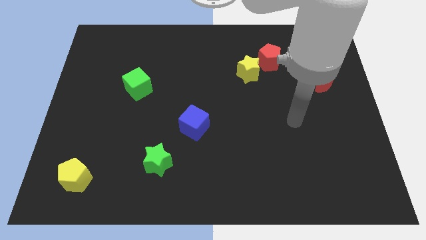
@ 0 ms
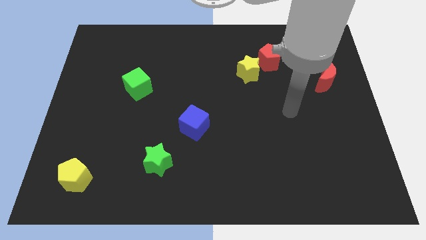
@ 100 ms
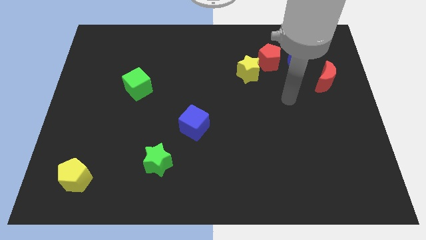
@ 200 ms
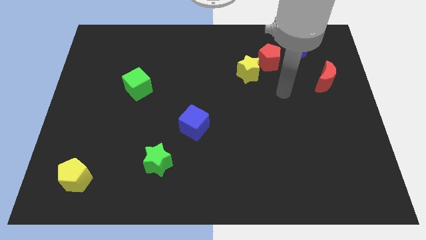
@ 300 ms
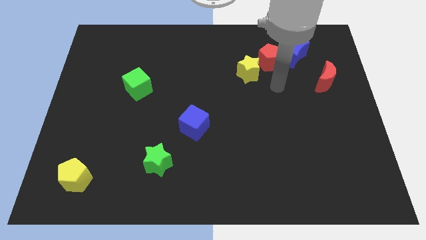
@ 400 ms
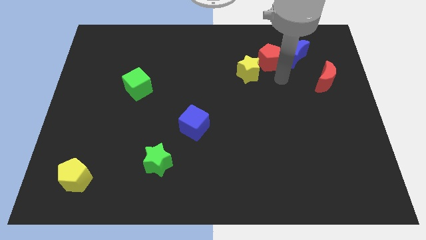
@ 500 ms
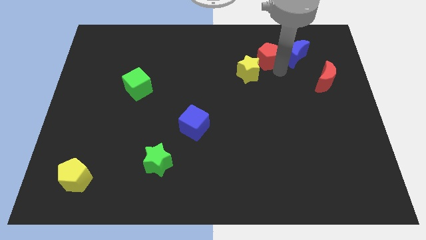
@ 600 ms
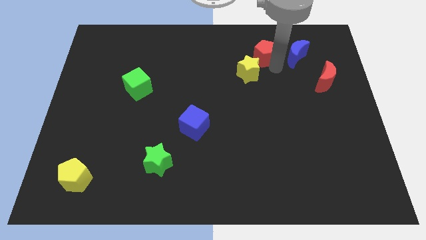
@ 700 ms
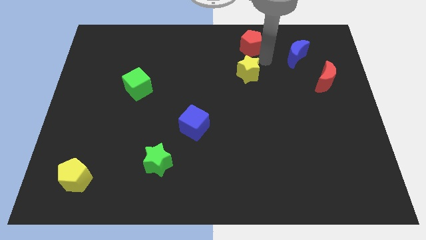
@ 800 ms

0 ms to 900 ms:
move the yellow star away from the red pentagon

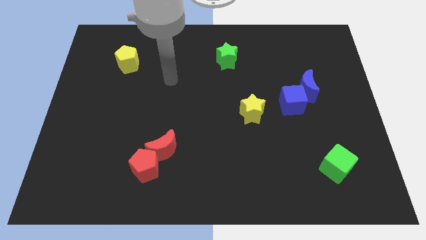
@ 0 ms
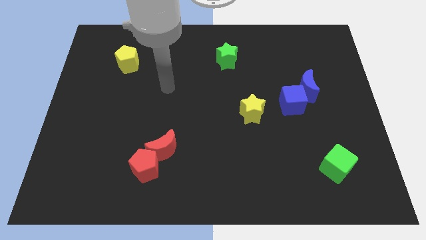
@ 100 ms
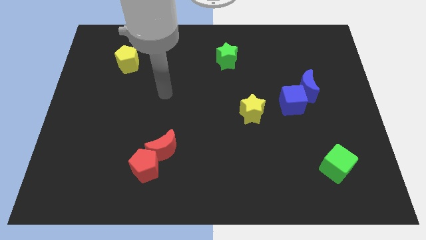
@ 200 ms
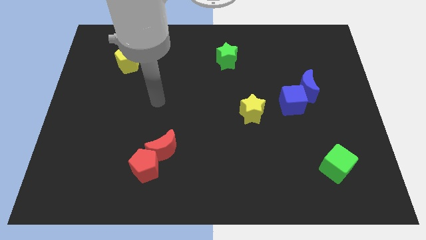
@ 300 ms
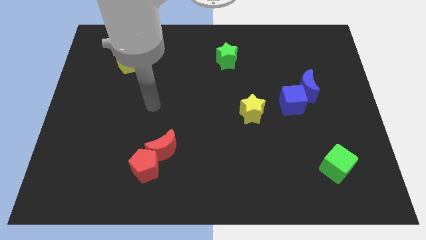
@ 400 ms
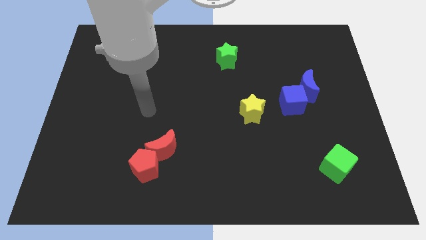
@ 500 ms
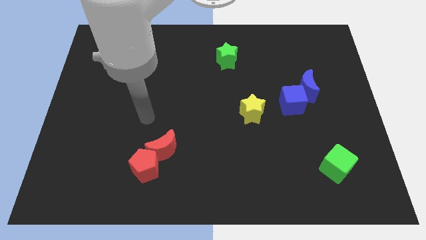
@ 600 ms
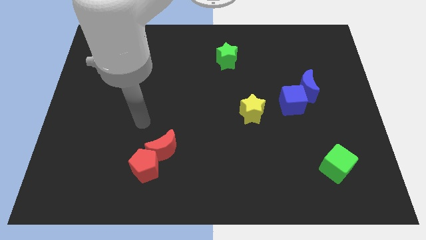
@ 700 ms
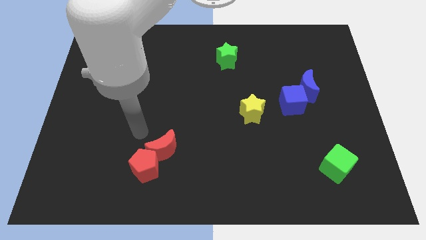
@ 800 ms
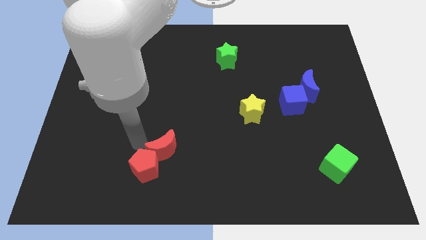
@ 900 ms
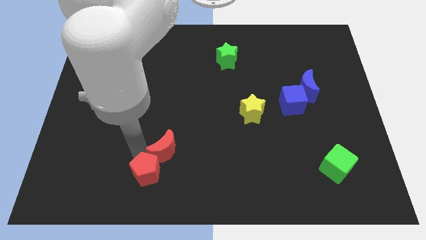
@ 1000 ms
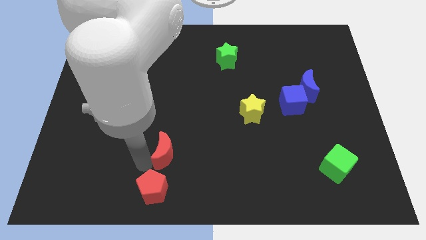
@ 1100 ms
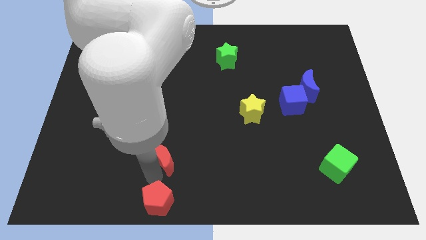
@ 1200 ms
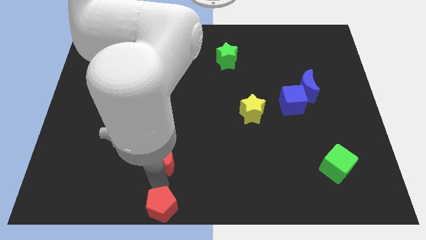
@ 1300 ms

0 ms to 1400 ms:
pull the red moon apart from the red pentagon

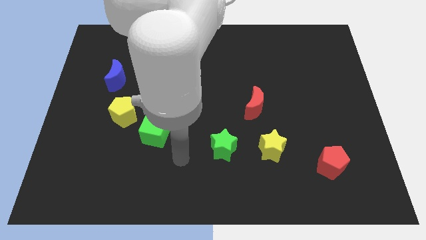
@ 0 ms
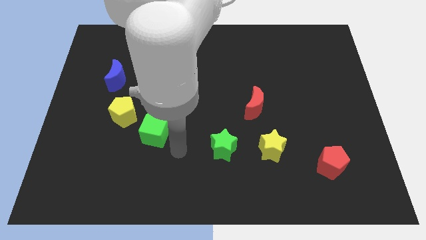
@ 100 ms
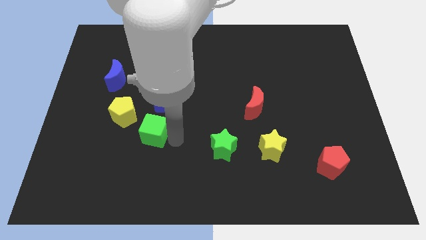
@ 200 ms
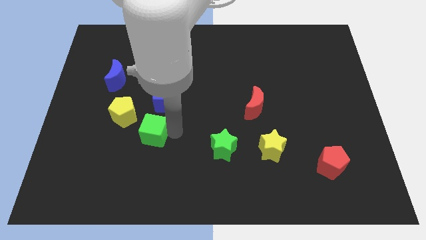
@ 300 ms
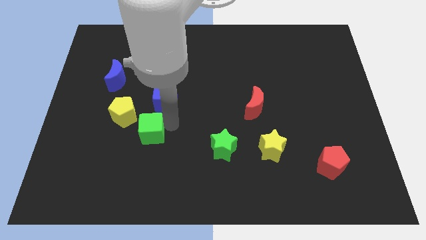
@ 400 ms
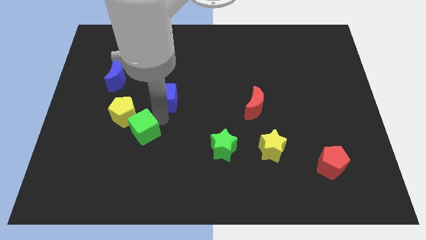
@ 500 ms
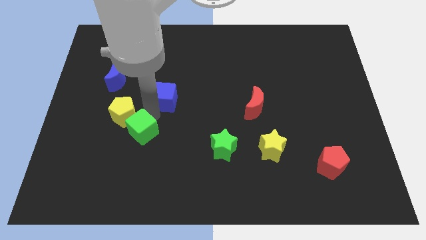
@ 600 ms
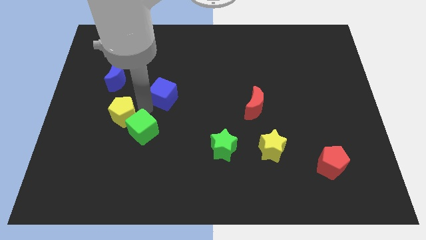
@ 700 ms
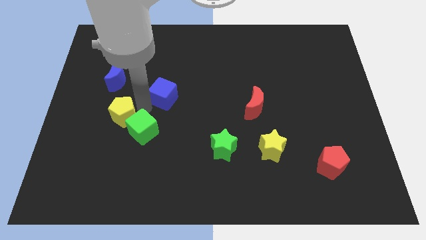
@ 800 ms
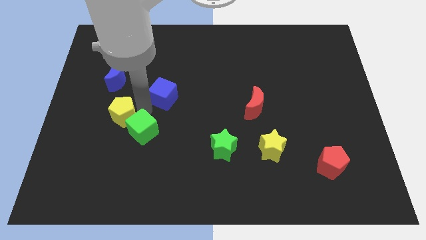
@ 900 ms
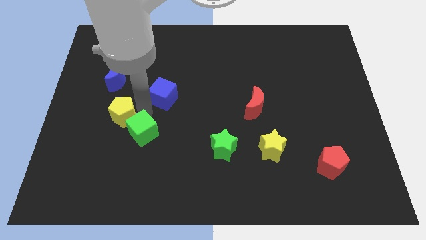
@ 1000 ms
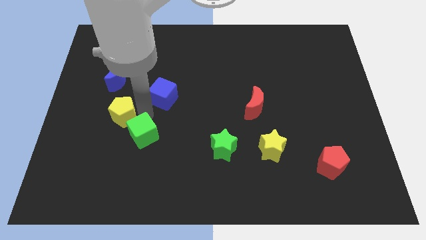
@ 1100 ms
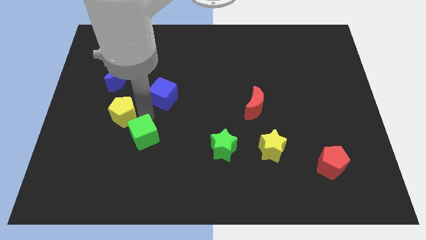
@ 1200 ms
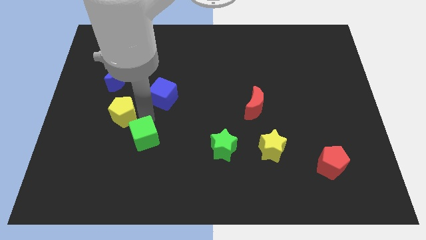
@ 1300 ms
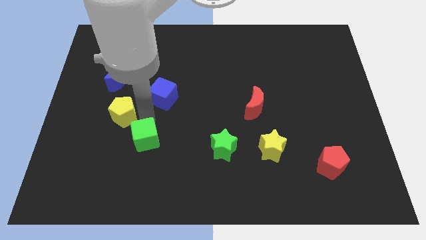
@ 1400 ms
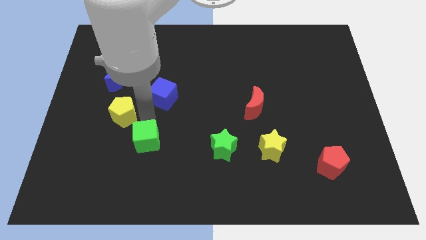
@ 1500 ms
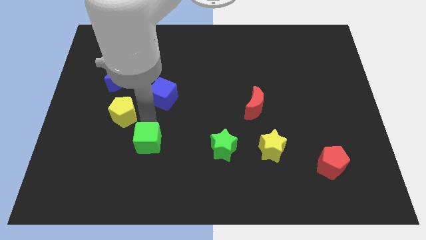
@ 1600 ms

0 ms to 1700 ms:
pull the green cube apart from the yellow pentagon and blue cube

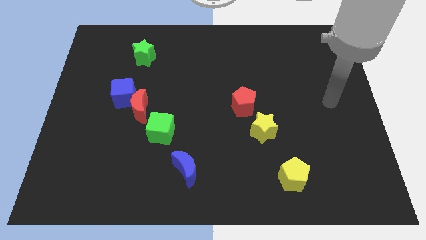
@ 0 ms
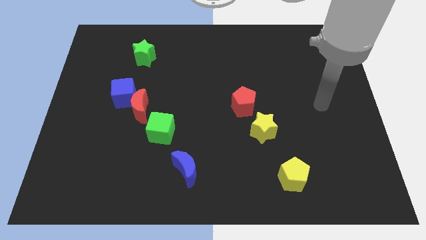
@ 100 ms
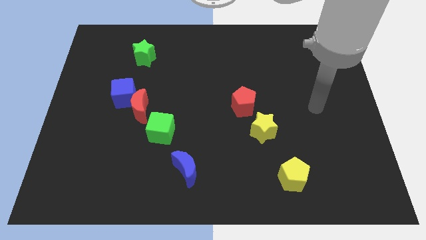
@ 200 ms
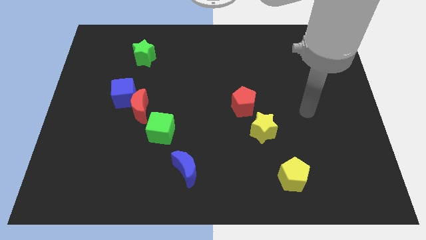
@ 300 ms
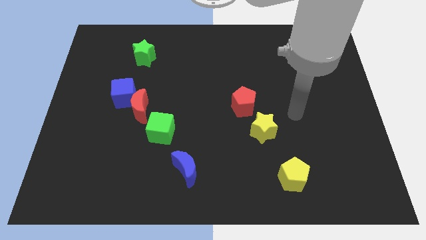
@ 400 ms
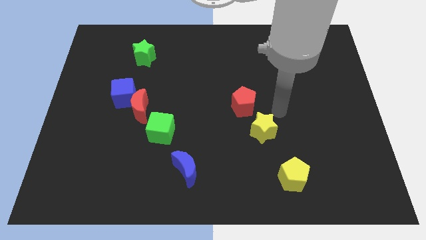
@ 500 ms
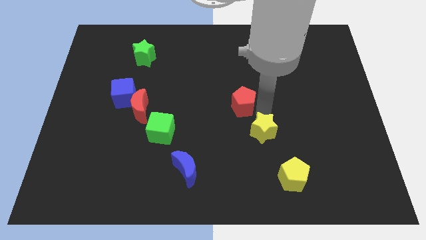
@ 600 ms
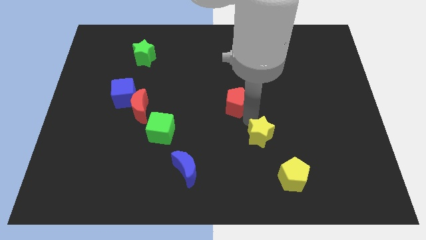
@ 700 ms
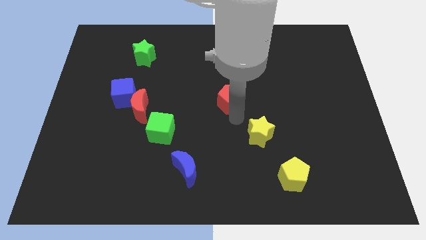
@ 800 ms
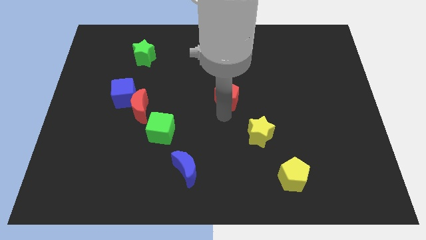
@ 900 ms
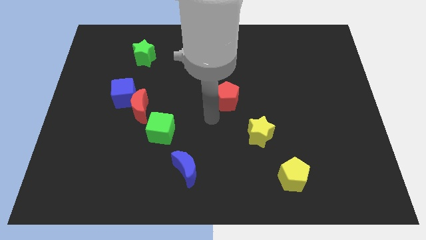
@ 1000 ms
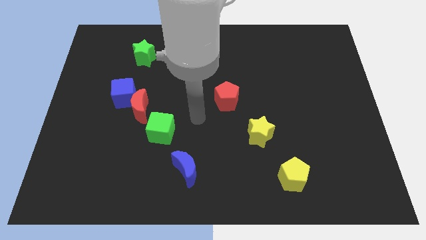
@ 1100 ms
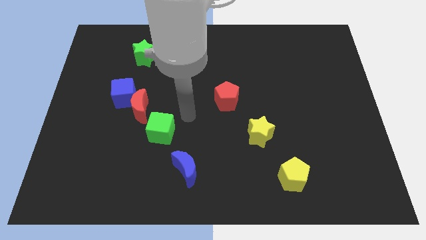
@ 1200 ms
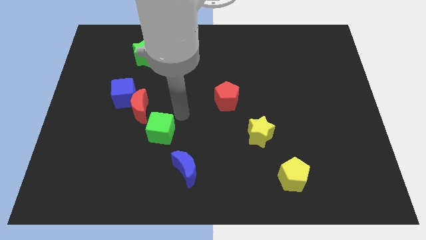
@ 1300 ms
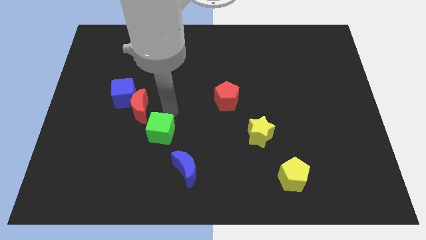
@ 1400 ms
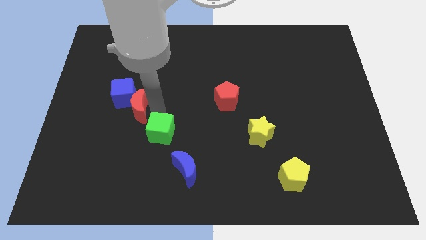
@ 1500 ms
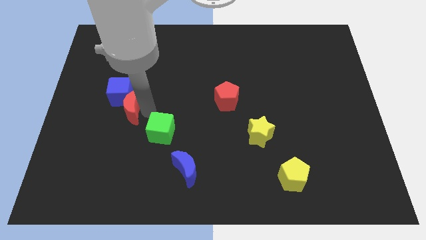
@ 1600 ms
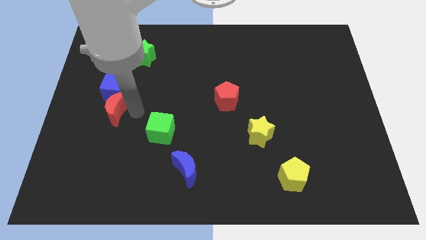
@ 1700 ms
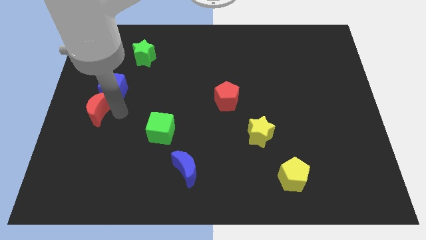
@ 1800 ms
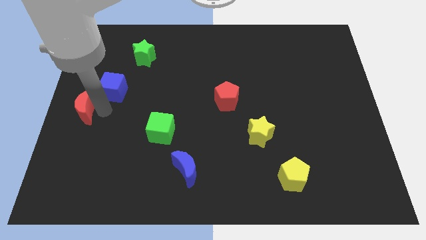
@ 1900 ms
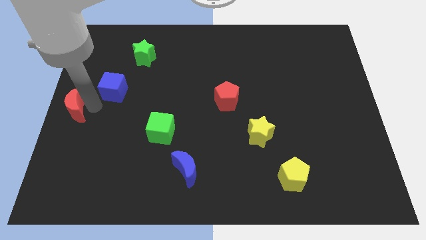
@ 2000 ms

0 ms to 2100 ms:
move the blue cube away from the red moon

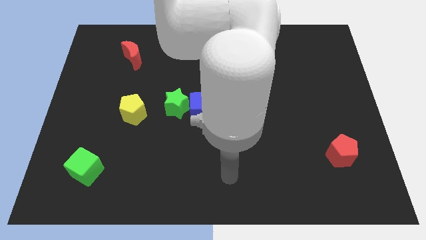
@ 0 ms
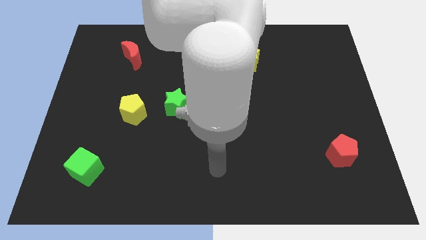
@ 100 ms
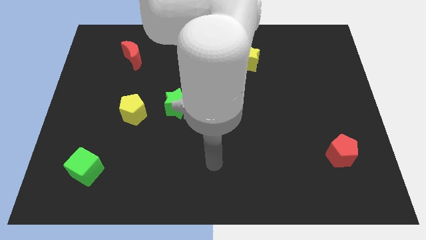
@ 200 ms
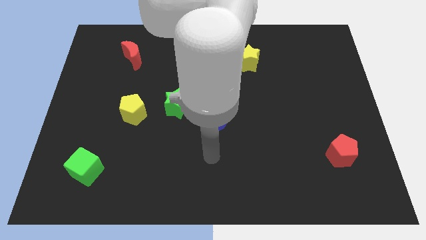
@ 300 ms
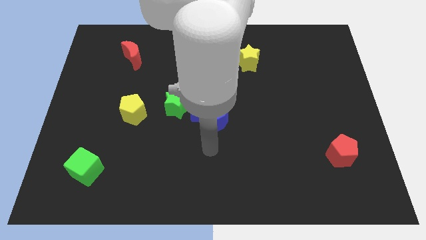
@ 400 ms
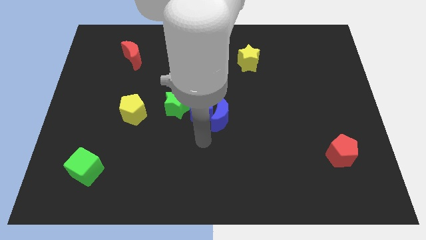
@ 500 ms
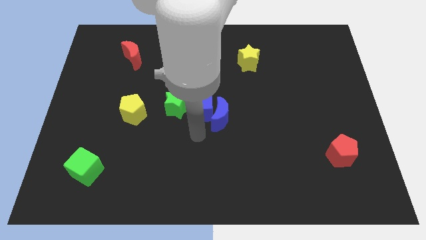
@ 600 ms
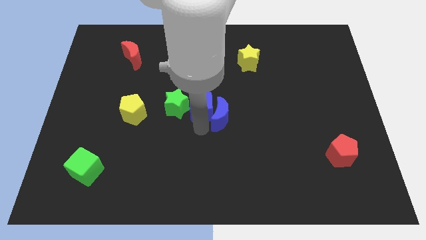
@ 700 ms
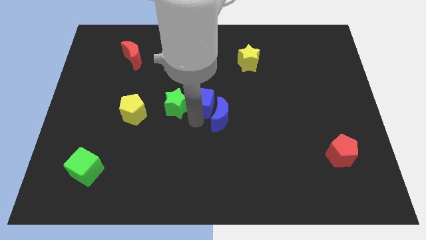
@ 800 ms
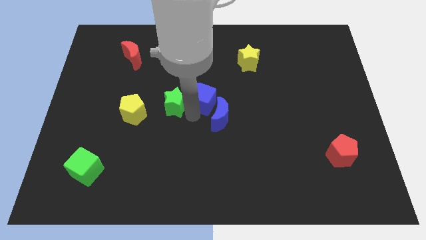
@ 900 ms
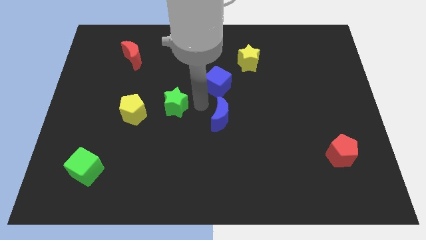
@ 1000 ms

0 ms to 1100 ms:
separate the blue moon from the blue cube

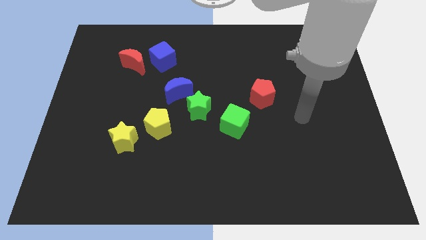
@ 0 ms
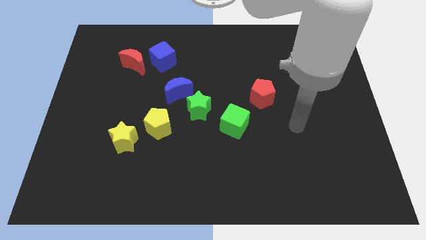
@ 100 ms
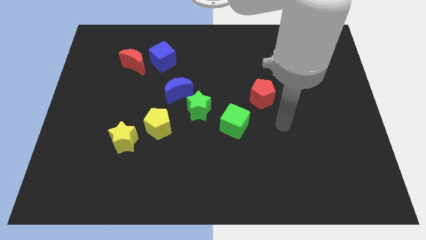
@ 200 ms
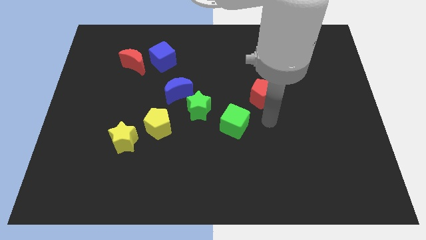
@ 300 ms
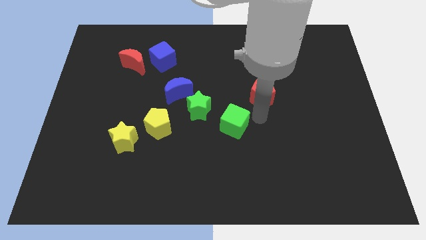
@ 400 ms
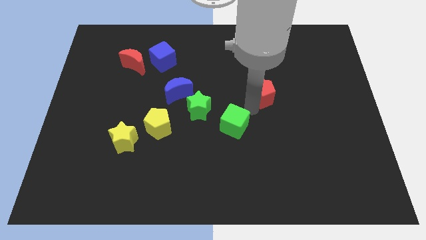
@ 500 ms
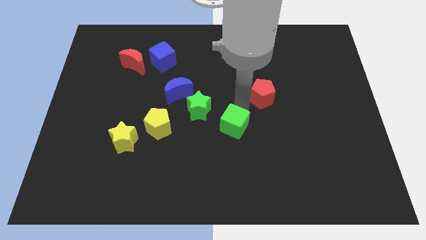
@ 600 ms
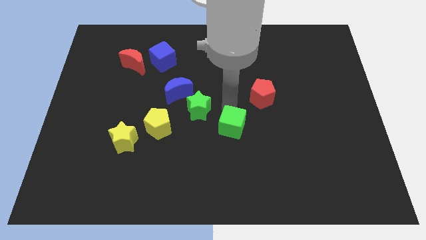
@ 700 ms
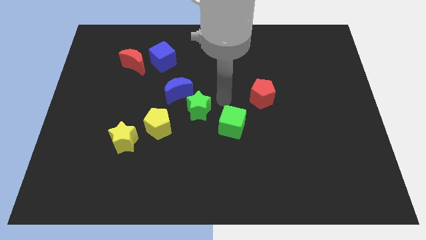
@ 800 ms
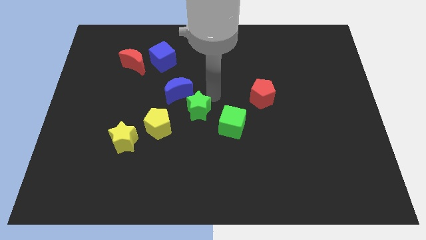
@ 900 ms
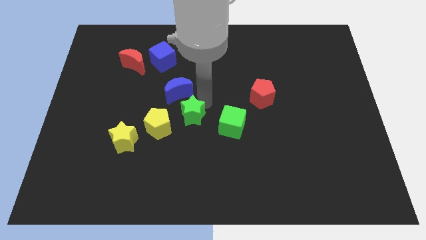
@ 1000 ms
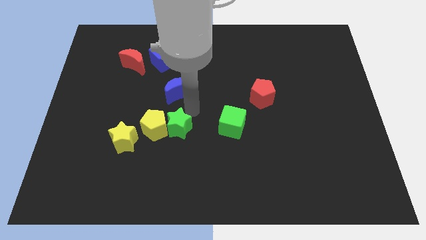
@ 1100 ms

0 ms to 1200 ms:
pull the blue moon apart from the green star

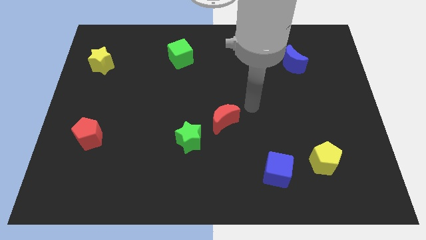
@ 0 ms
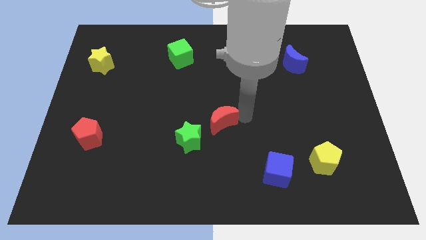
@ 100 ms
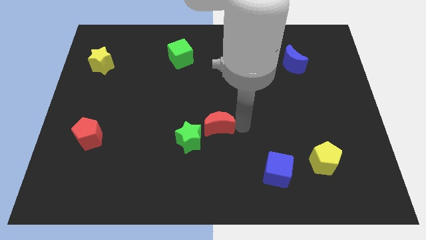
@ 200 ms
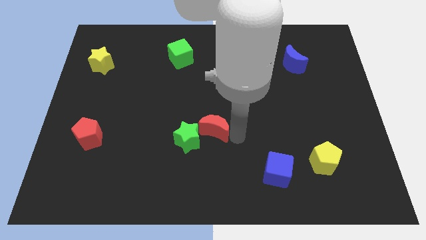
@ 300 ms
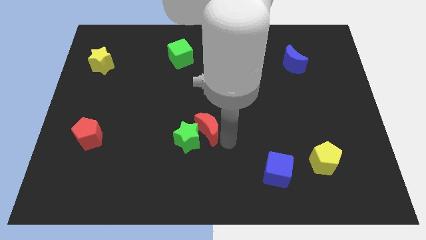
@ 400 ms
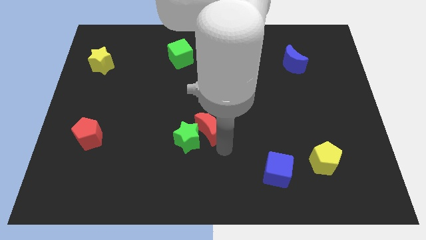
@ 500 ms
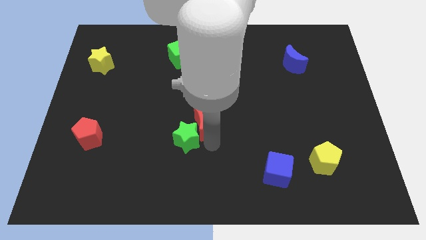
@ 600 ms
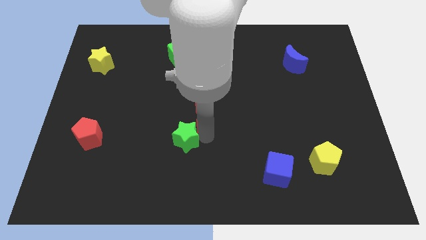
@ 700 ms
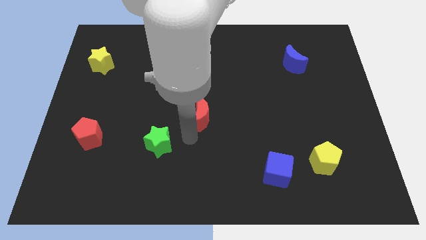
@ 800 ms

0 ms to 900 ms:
pull the red moon apart from the green star

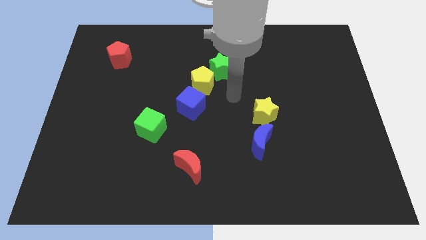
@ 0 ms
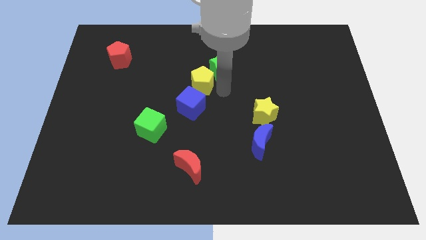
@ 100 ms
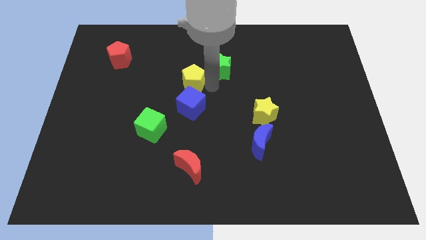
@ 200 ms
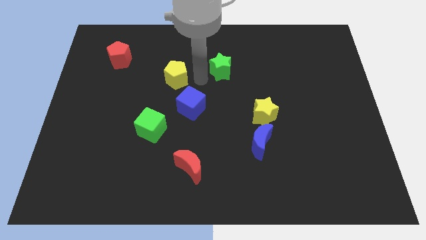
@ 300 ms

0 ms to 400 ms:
pull the green star apart from the yellow pentagon
